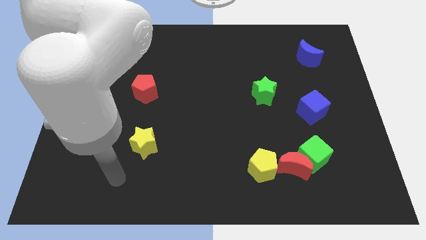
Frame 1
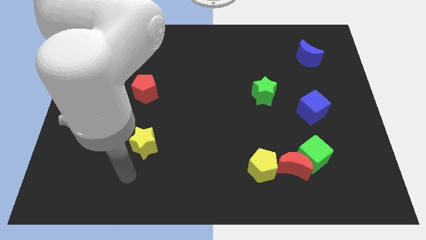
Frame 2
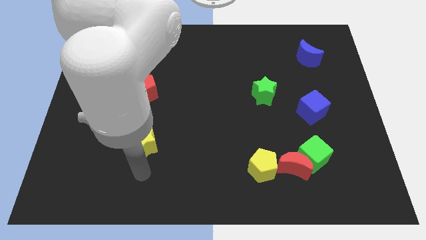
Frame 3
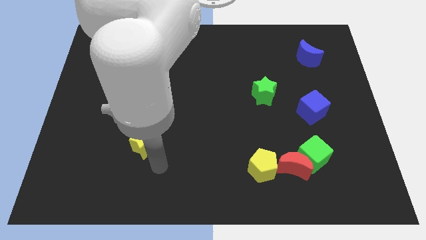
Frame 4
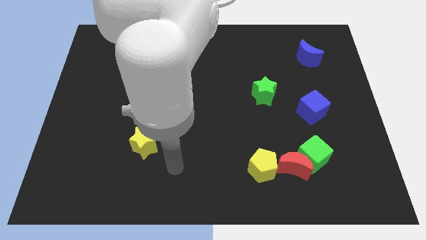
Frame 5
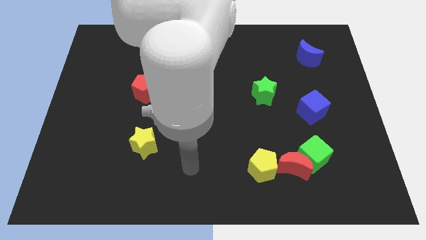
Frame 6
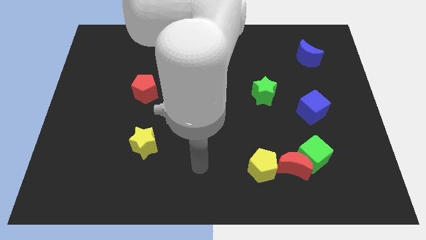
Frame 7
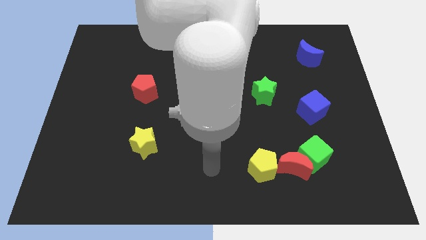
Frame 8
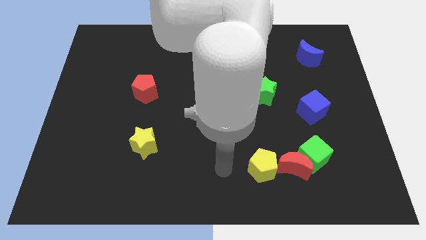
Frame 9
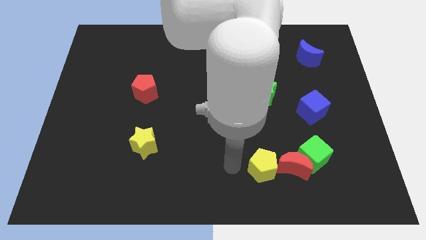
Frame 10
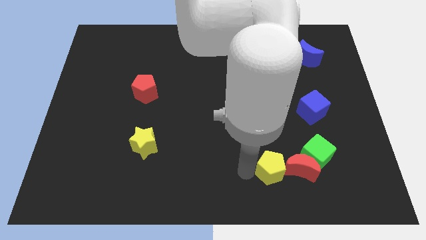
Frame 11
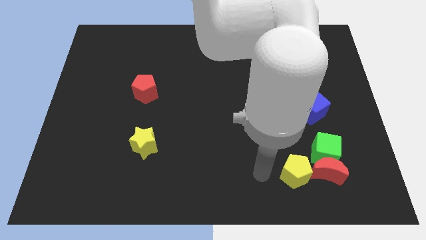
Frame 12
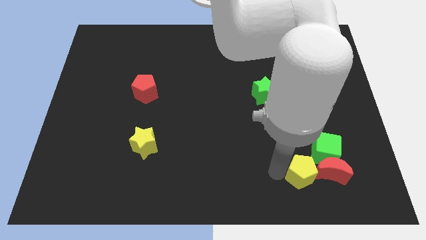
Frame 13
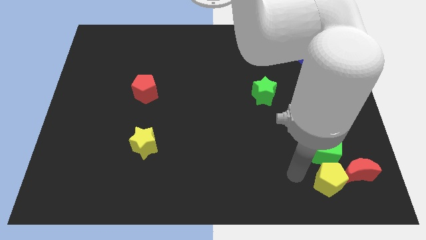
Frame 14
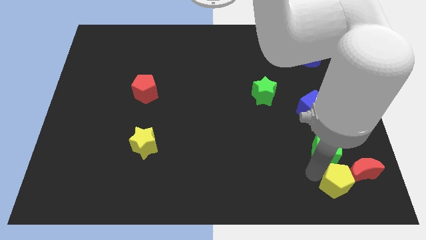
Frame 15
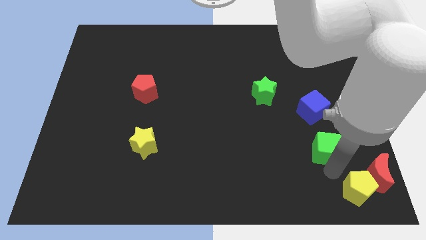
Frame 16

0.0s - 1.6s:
pull the green cube apart from the red moon

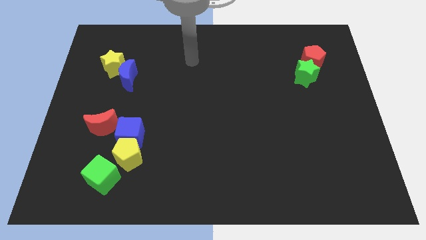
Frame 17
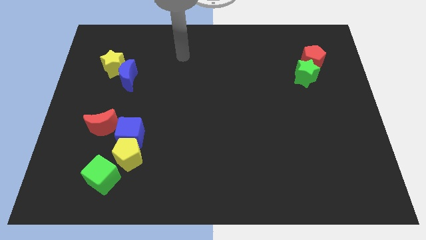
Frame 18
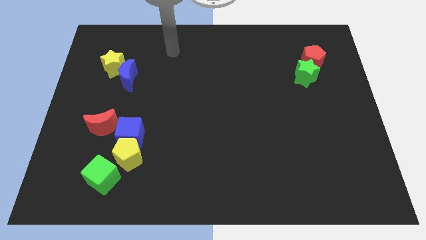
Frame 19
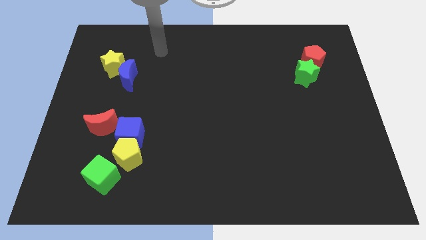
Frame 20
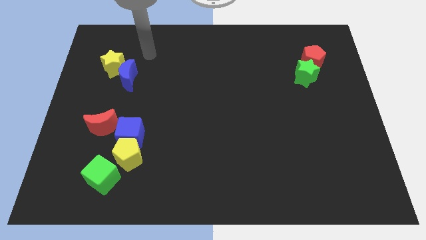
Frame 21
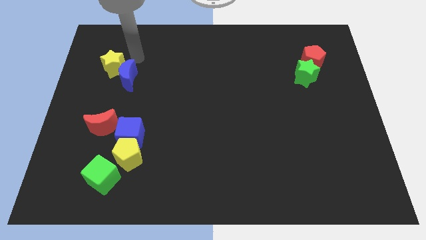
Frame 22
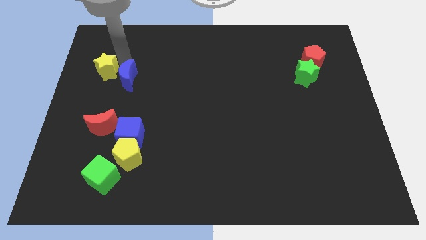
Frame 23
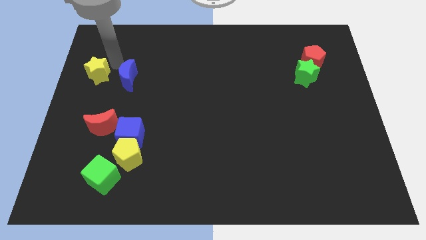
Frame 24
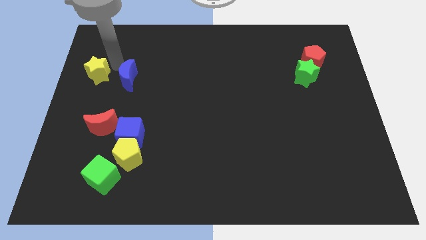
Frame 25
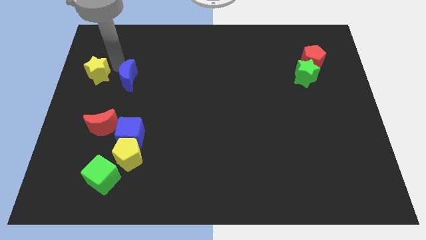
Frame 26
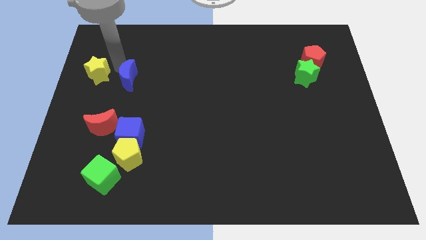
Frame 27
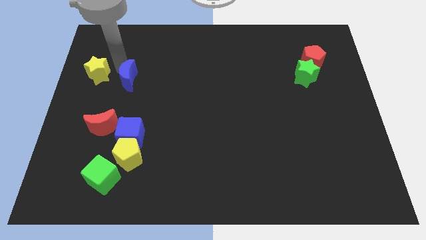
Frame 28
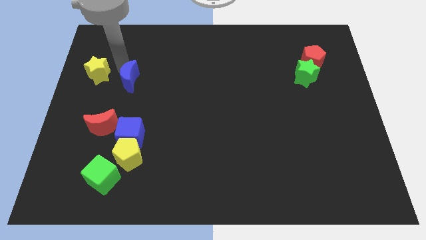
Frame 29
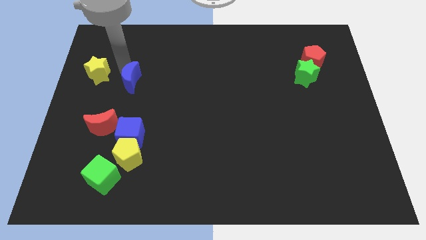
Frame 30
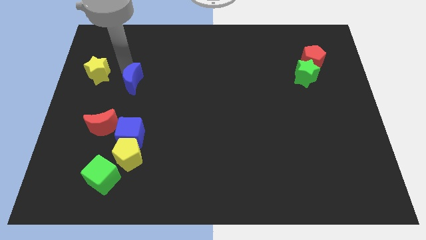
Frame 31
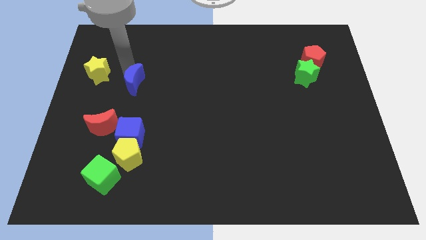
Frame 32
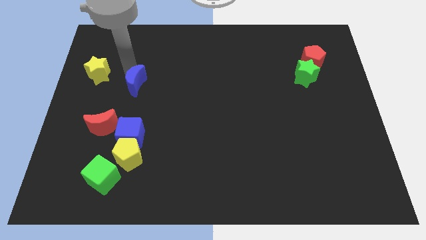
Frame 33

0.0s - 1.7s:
separate the blue moon from the yellow star

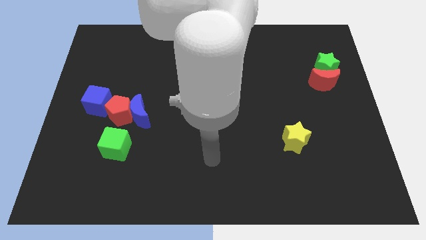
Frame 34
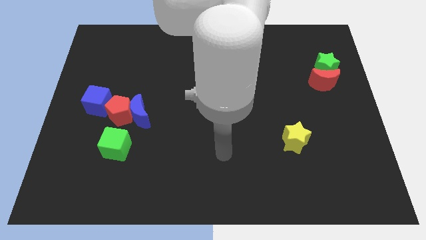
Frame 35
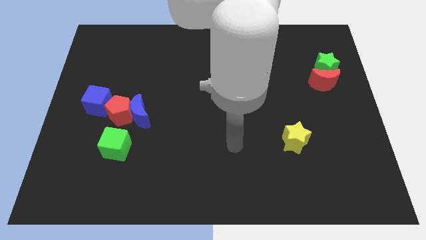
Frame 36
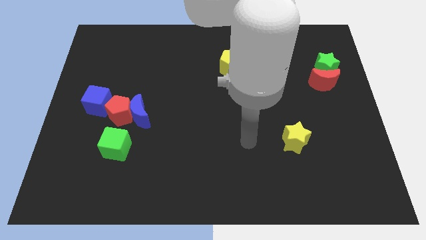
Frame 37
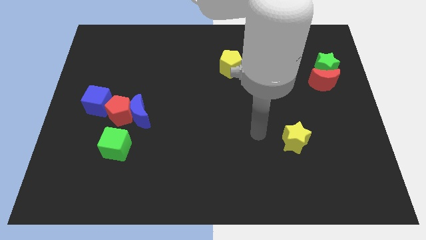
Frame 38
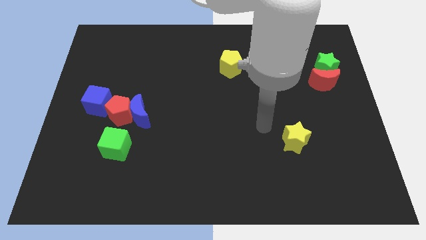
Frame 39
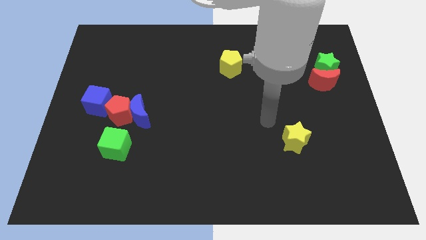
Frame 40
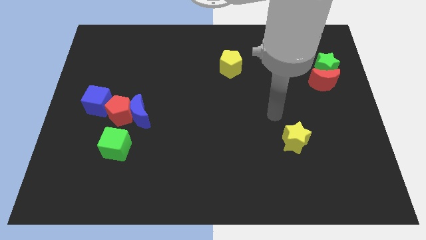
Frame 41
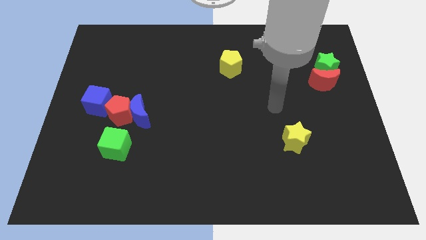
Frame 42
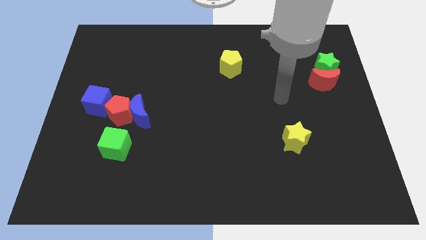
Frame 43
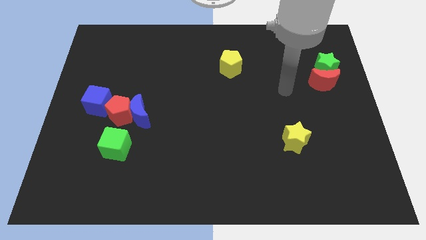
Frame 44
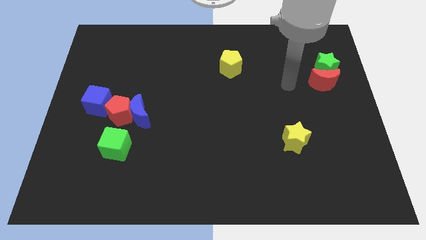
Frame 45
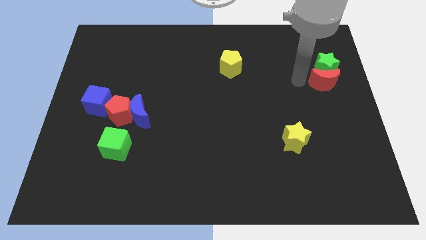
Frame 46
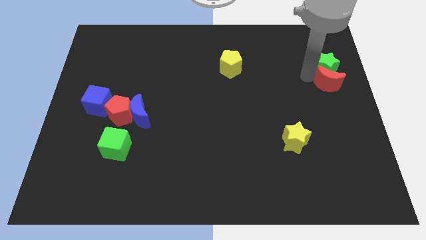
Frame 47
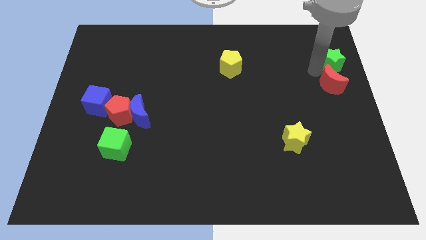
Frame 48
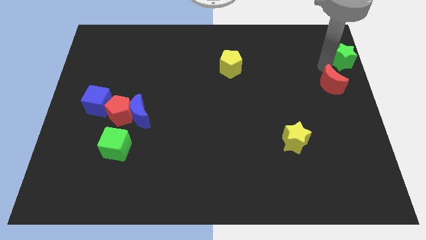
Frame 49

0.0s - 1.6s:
separate the red moon from the green star

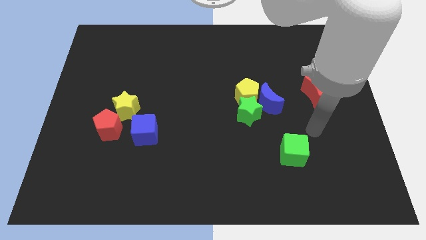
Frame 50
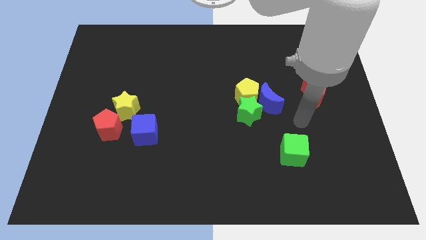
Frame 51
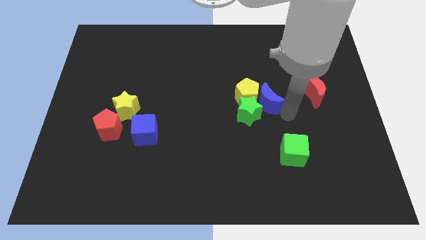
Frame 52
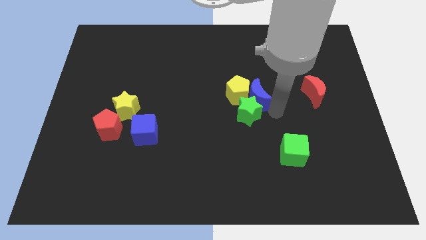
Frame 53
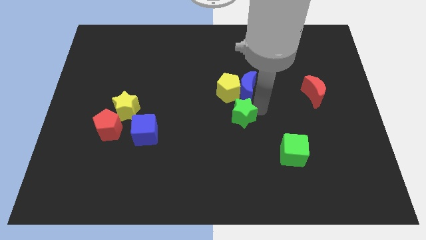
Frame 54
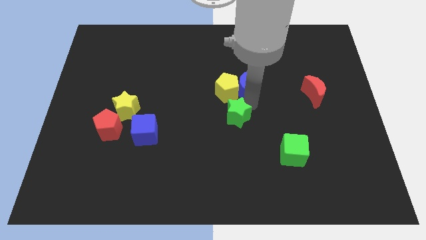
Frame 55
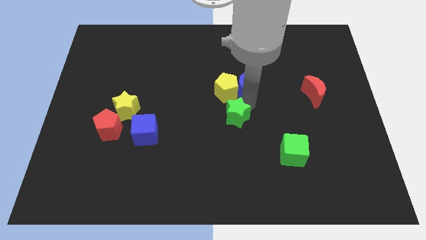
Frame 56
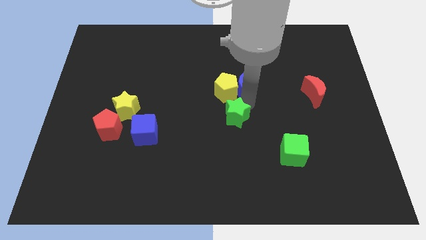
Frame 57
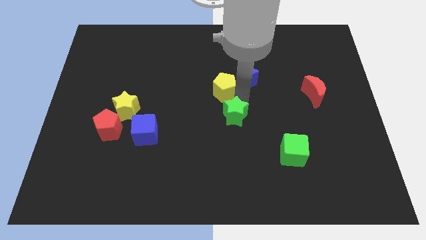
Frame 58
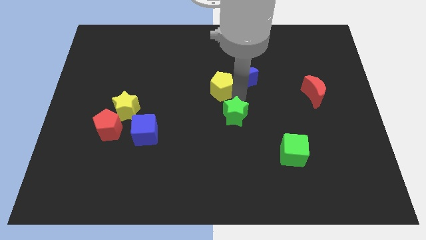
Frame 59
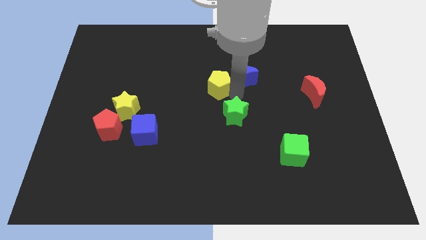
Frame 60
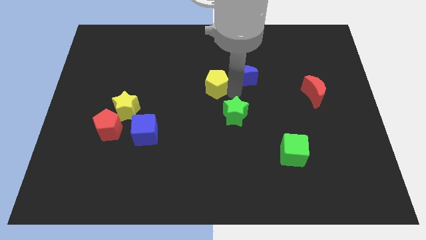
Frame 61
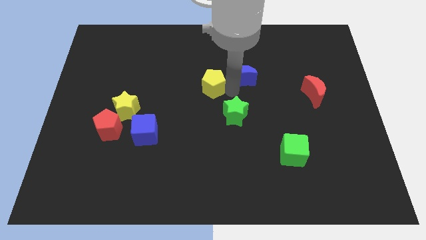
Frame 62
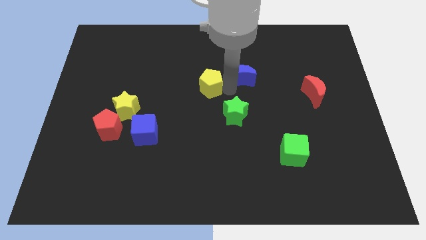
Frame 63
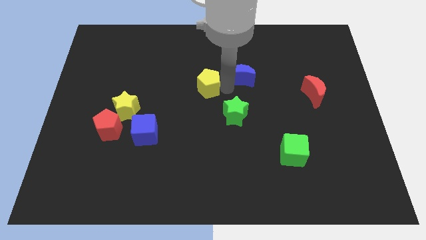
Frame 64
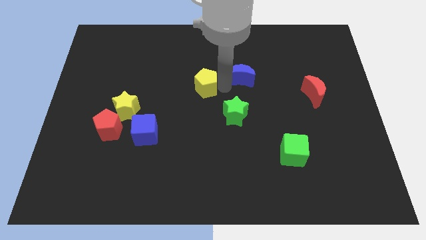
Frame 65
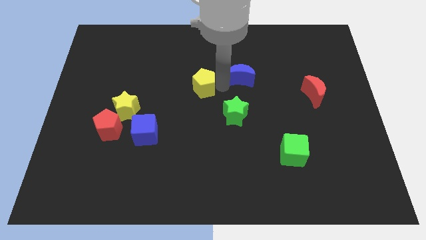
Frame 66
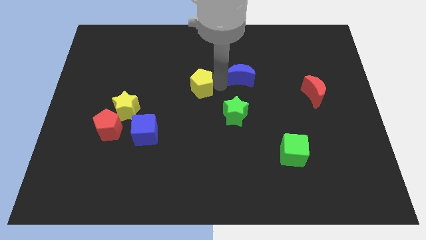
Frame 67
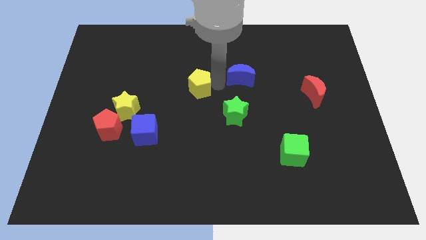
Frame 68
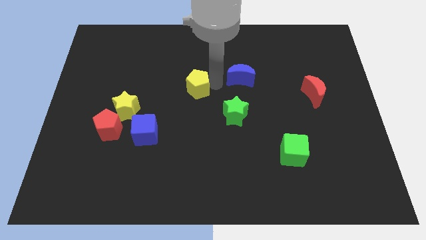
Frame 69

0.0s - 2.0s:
move the yellow pentagon away from the green star and blue moon

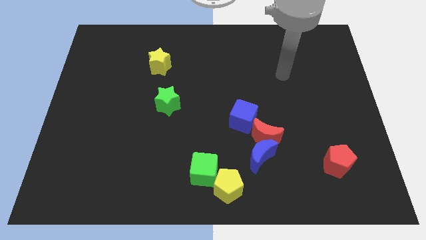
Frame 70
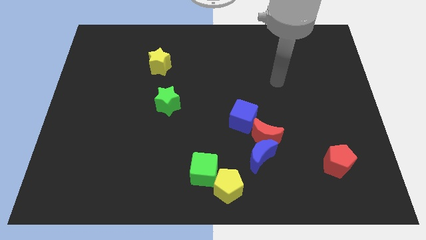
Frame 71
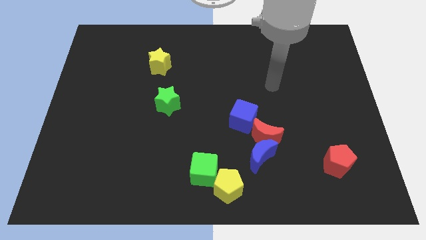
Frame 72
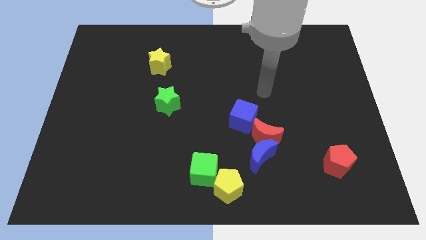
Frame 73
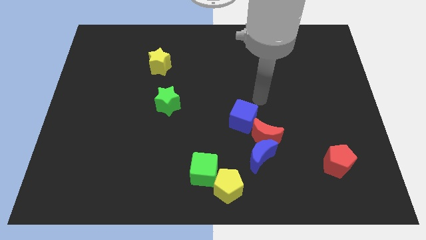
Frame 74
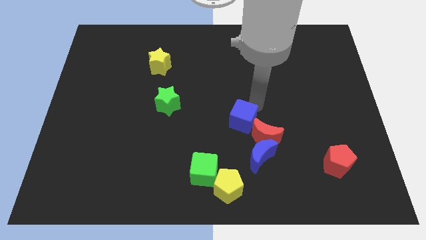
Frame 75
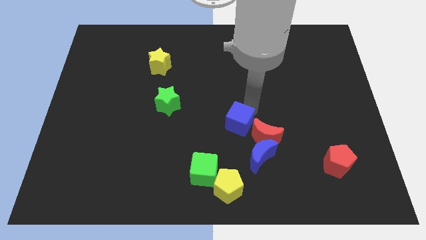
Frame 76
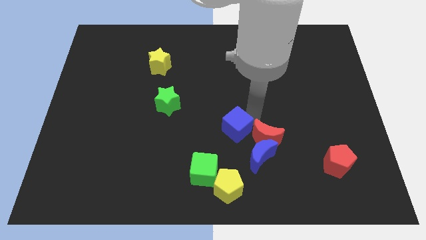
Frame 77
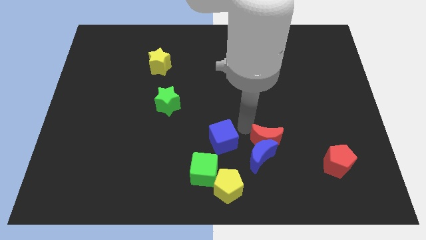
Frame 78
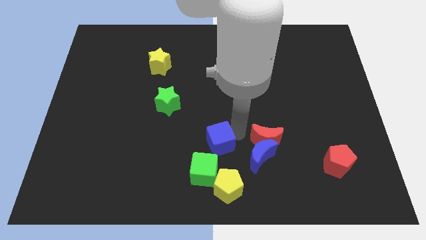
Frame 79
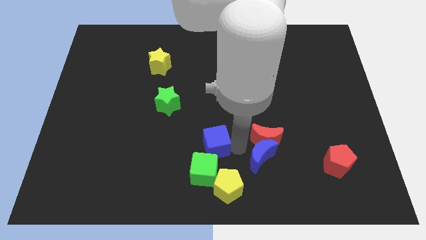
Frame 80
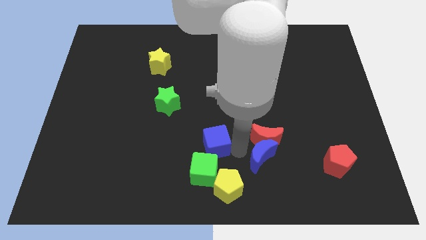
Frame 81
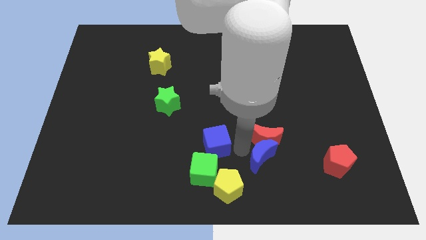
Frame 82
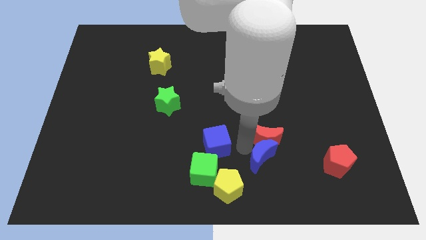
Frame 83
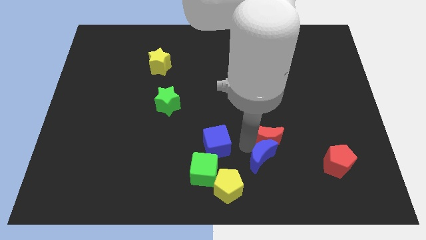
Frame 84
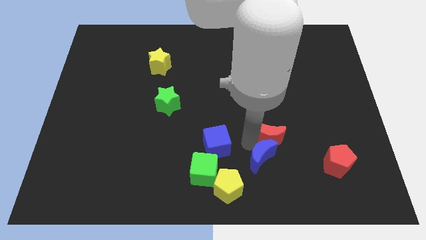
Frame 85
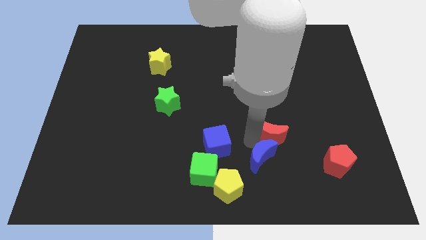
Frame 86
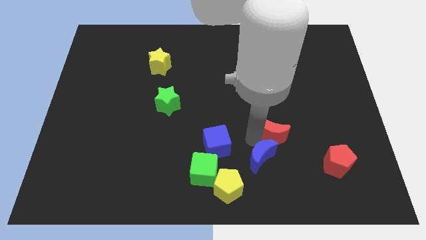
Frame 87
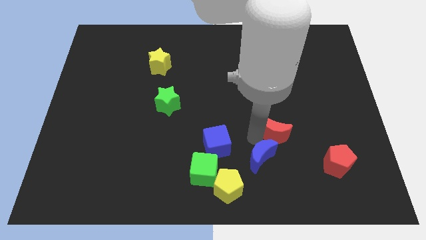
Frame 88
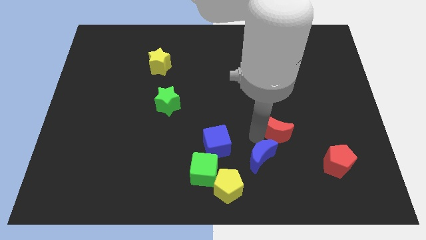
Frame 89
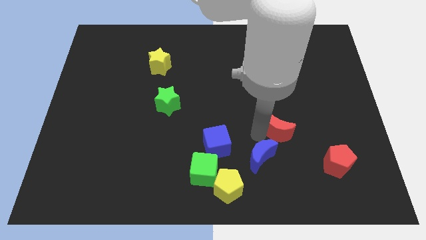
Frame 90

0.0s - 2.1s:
pull the red moon apart from the blue moon and blue cube

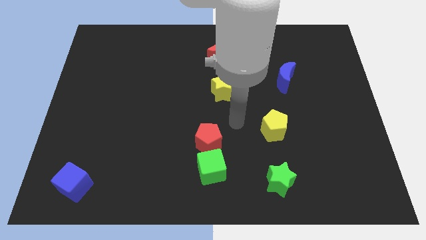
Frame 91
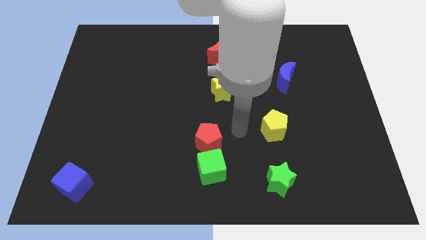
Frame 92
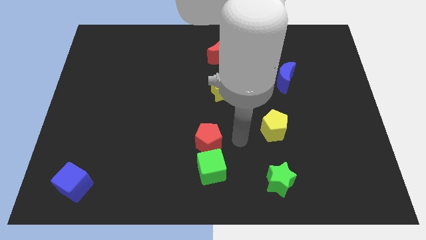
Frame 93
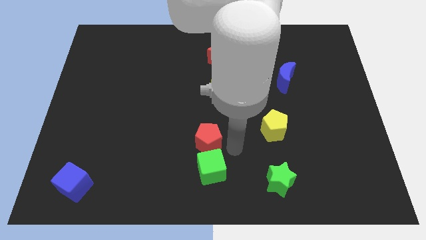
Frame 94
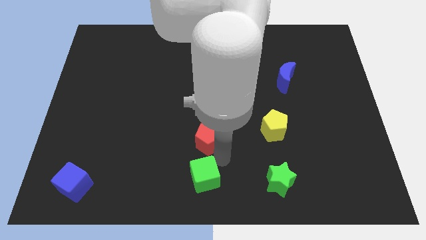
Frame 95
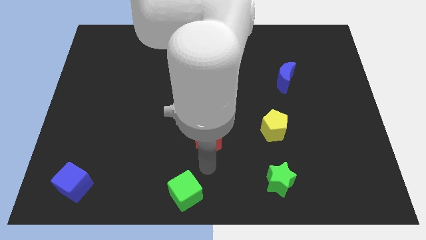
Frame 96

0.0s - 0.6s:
move the red pentagon away from the green cube
